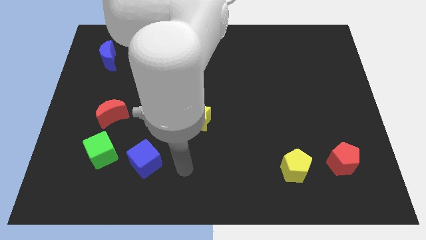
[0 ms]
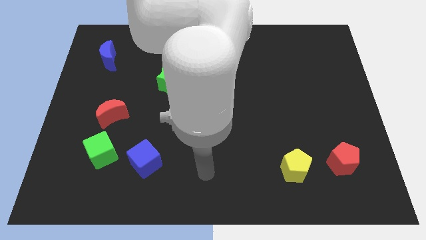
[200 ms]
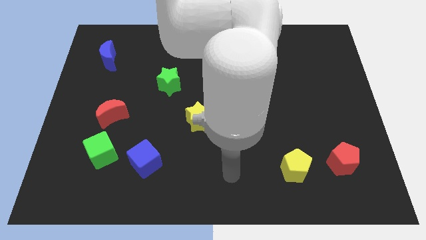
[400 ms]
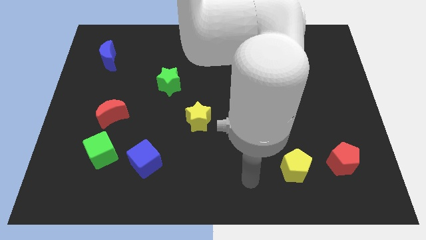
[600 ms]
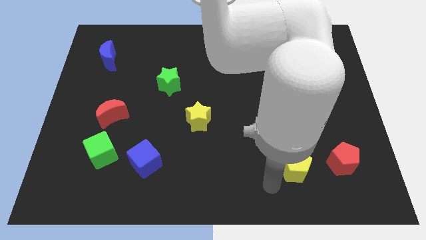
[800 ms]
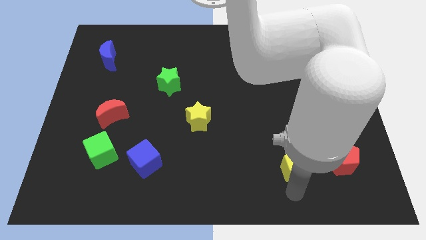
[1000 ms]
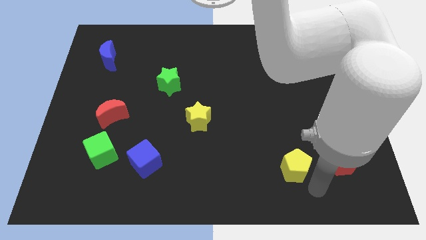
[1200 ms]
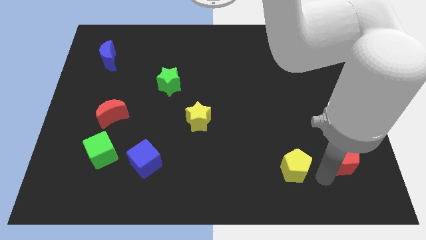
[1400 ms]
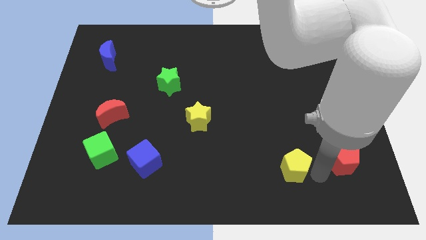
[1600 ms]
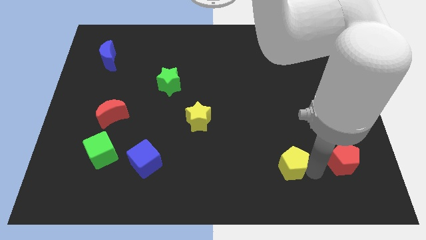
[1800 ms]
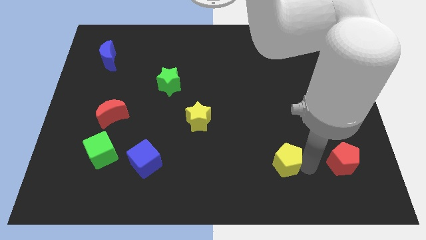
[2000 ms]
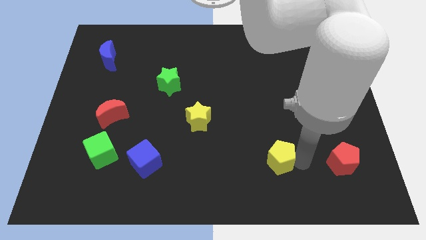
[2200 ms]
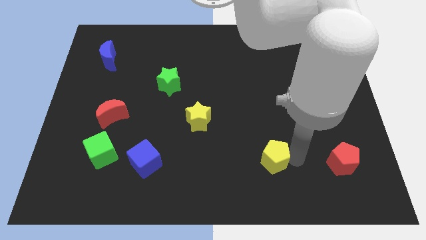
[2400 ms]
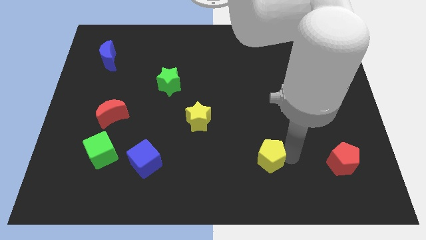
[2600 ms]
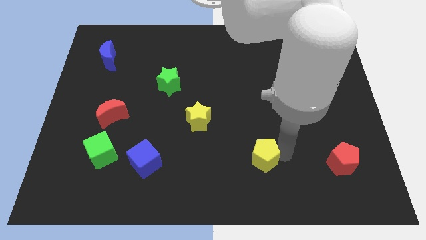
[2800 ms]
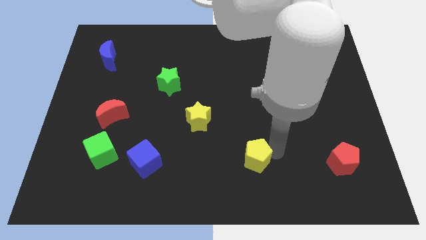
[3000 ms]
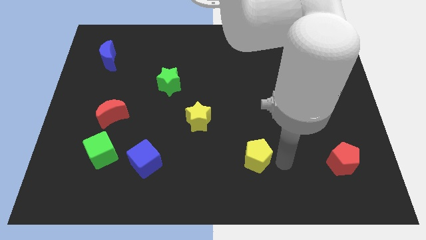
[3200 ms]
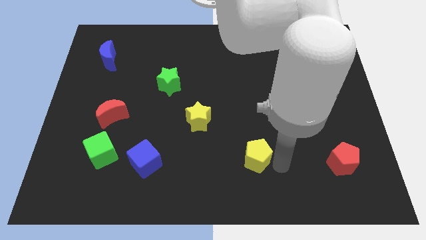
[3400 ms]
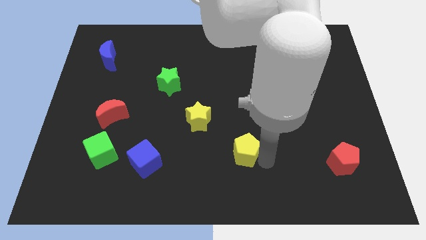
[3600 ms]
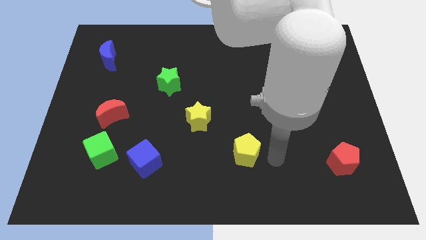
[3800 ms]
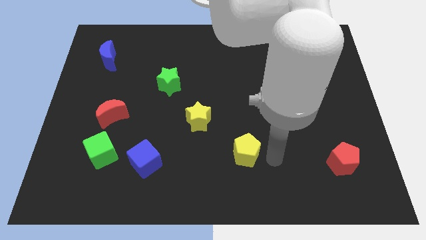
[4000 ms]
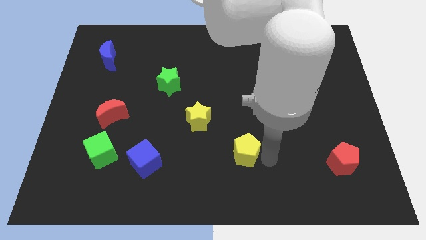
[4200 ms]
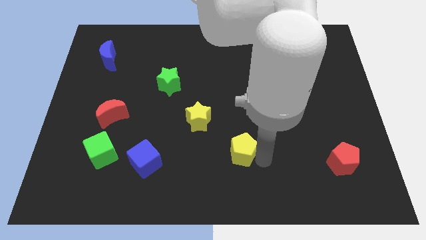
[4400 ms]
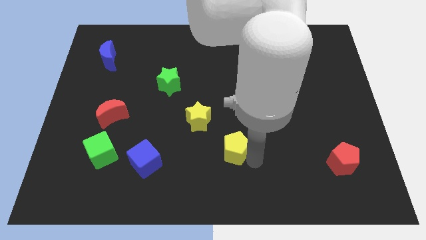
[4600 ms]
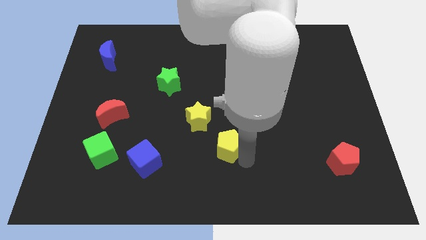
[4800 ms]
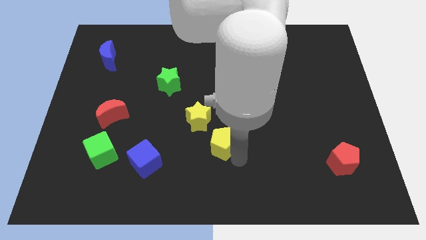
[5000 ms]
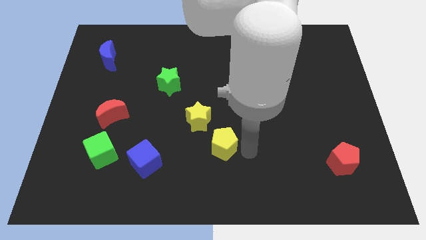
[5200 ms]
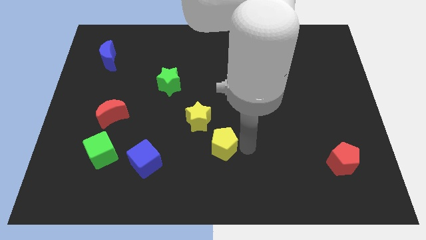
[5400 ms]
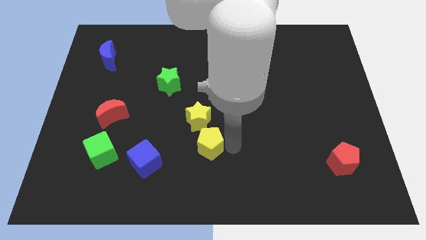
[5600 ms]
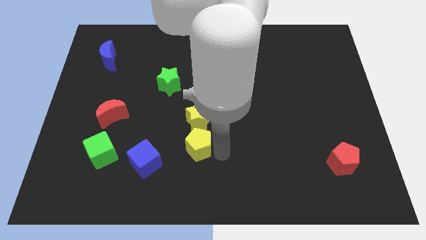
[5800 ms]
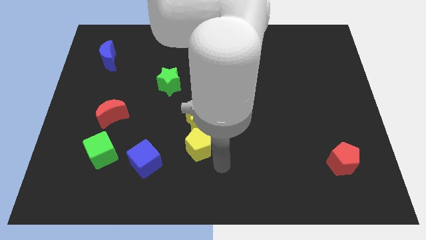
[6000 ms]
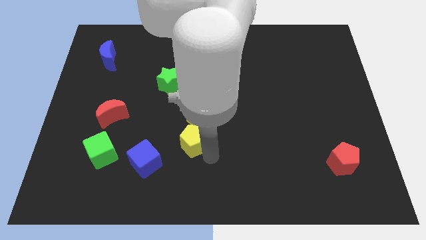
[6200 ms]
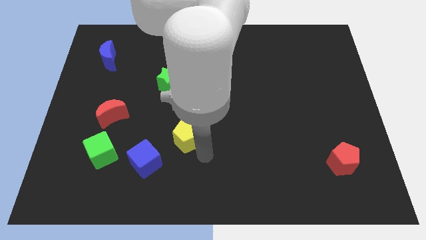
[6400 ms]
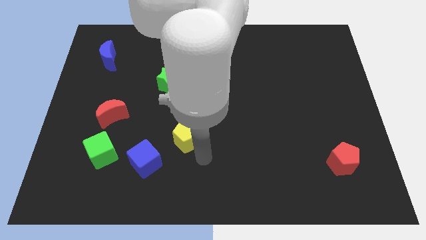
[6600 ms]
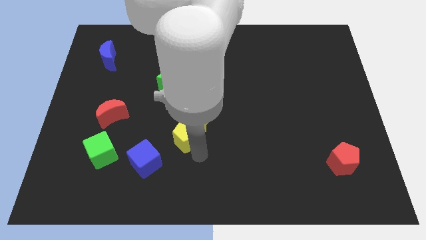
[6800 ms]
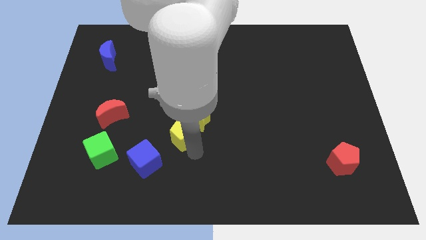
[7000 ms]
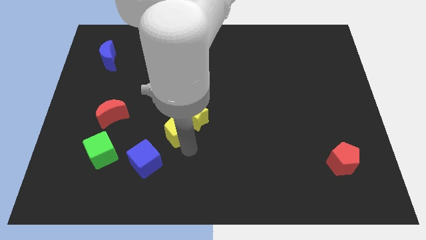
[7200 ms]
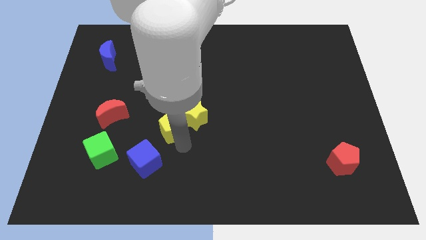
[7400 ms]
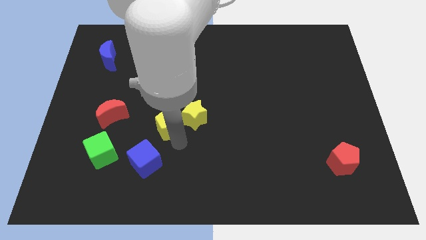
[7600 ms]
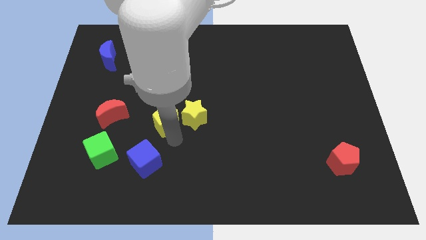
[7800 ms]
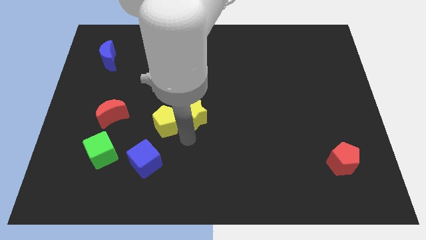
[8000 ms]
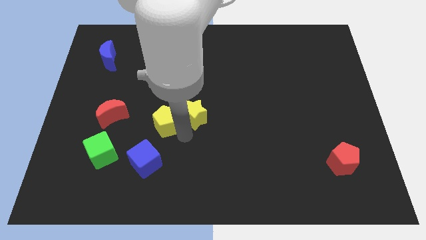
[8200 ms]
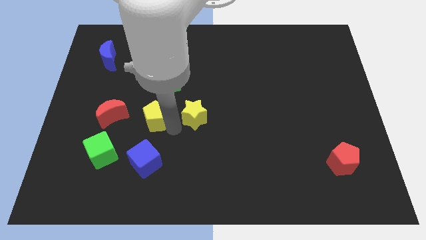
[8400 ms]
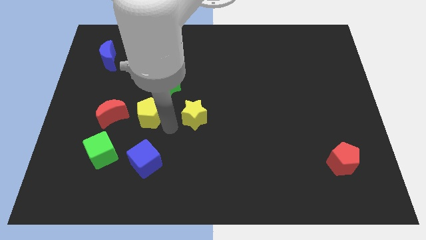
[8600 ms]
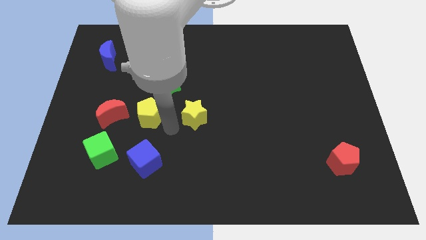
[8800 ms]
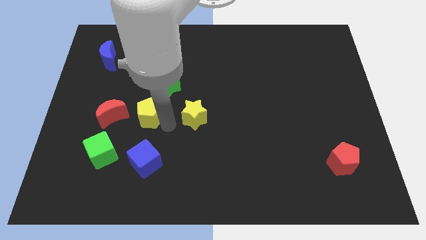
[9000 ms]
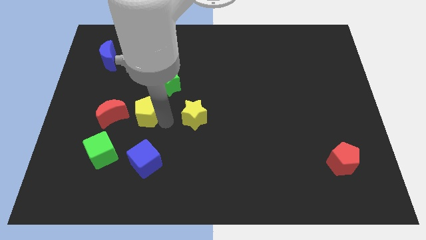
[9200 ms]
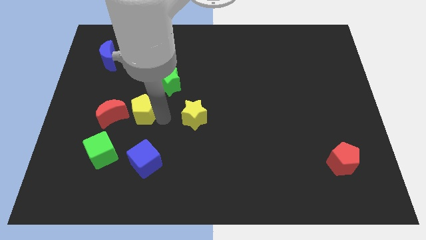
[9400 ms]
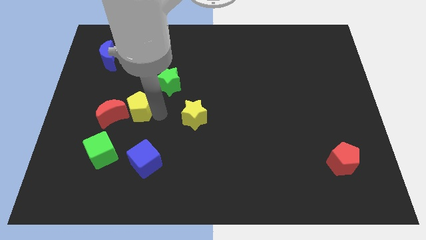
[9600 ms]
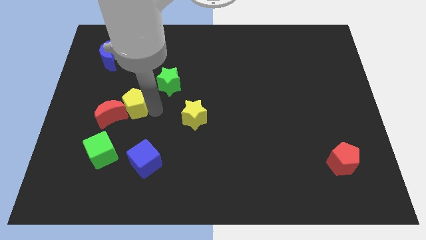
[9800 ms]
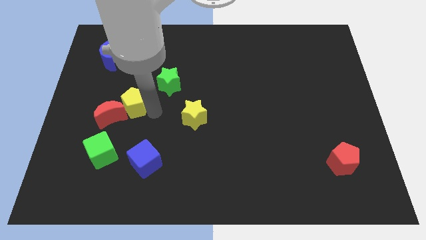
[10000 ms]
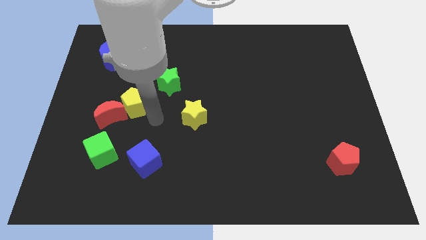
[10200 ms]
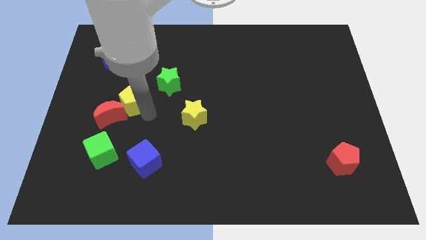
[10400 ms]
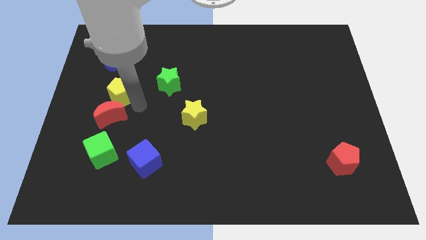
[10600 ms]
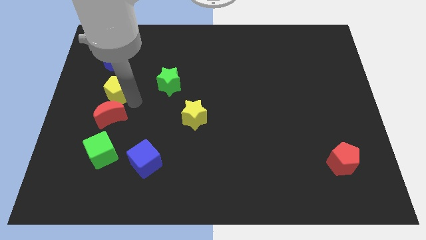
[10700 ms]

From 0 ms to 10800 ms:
move the yellow pentagon to the bottom side of the blue moon

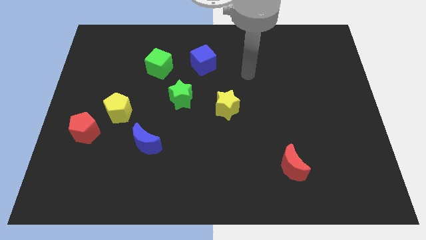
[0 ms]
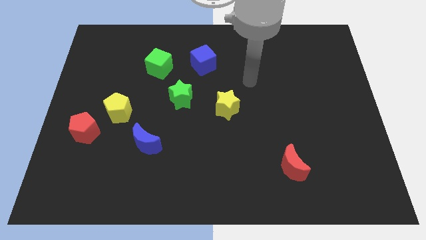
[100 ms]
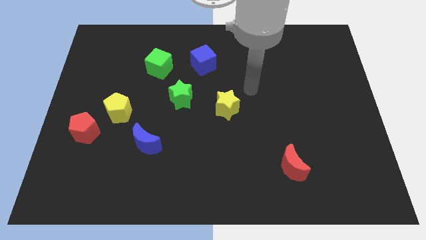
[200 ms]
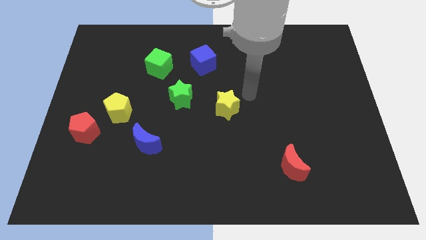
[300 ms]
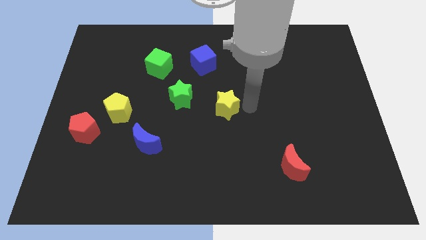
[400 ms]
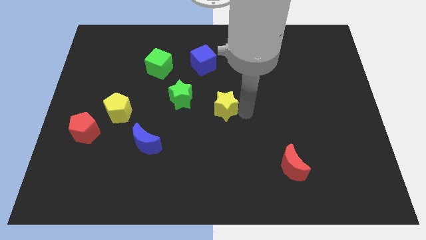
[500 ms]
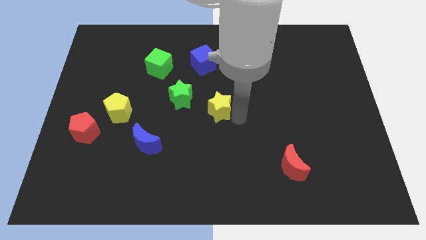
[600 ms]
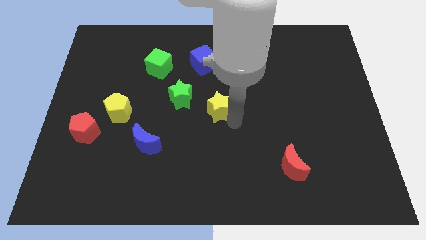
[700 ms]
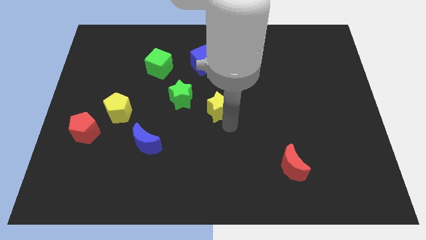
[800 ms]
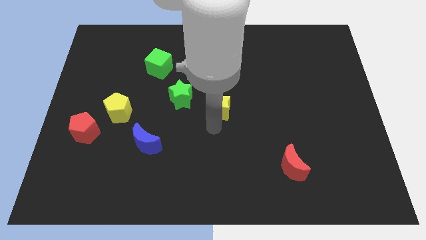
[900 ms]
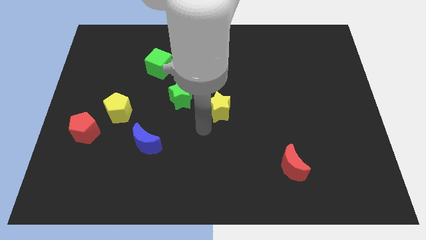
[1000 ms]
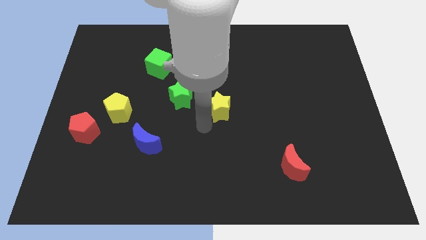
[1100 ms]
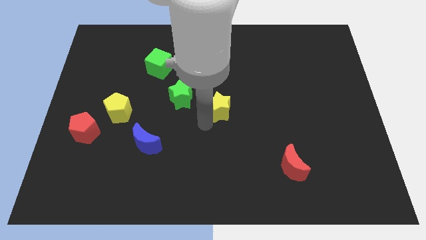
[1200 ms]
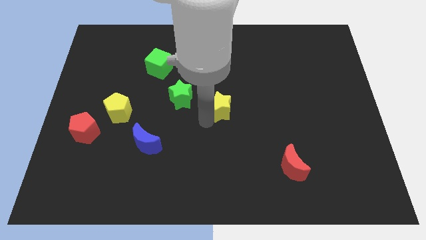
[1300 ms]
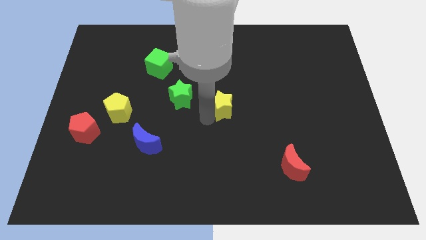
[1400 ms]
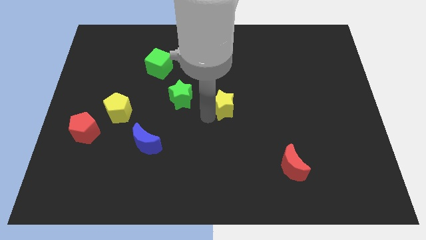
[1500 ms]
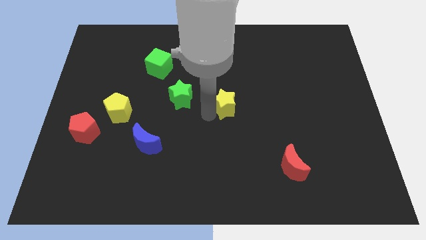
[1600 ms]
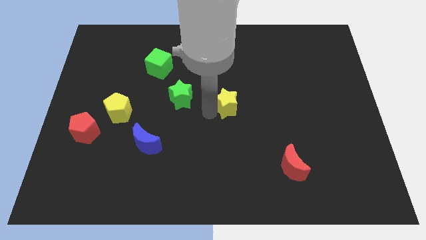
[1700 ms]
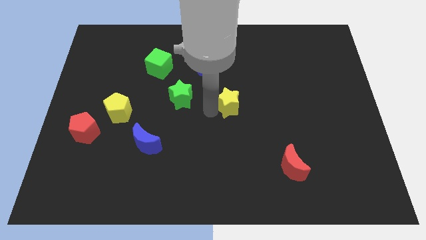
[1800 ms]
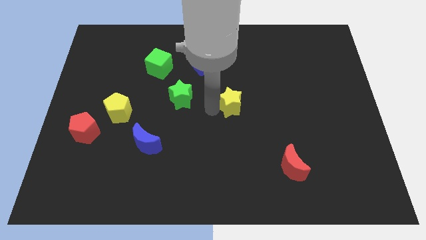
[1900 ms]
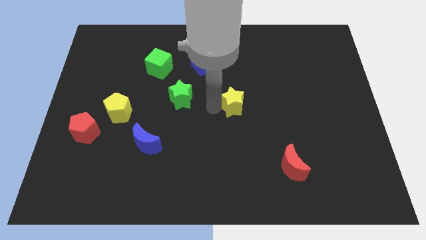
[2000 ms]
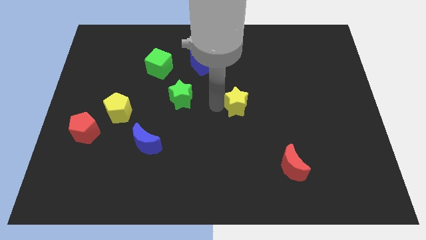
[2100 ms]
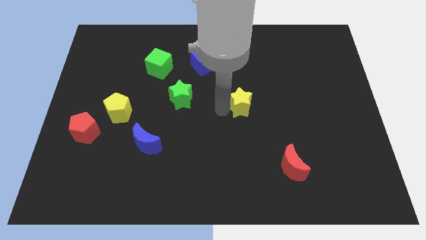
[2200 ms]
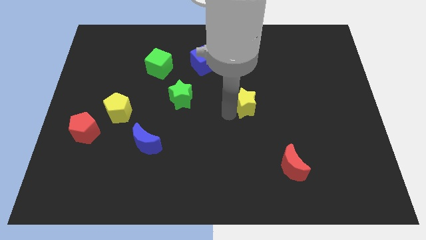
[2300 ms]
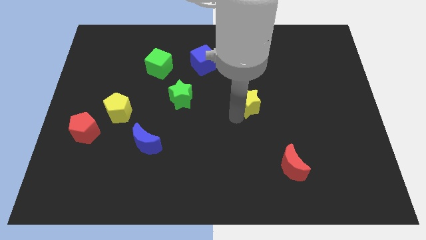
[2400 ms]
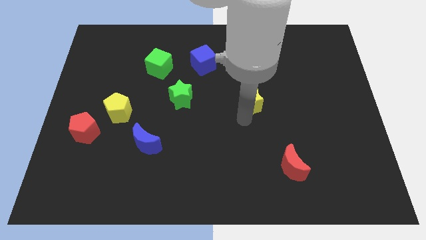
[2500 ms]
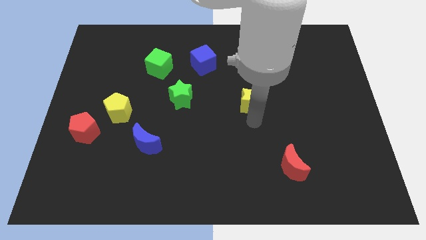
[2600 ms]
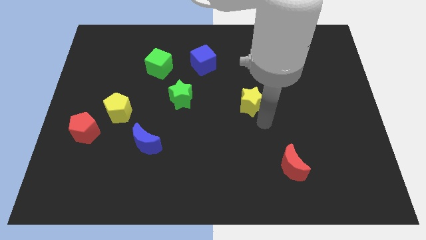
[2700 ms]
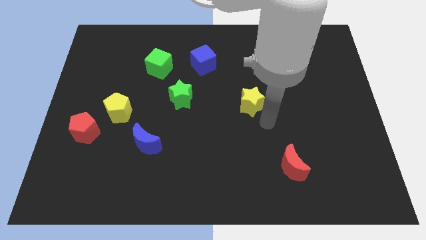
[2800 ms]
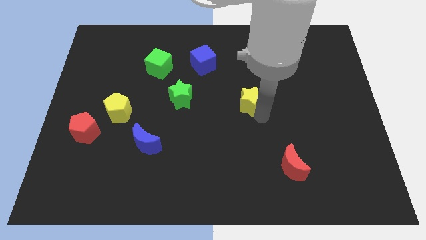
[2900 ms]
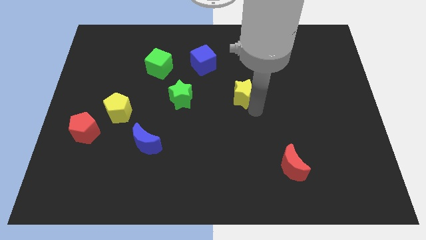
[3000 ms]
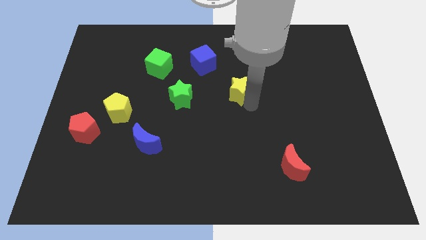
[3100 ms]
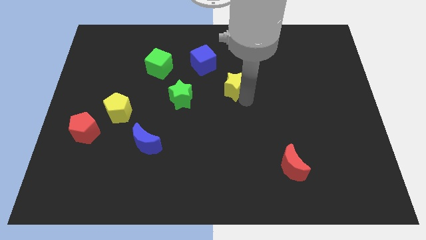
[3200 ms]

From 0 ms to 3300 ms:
put the yellow star diagonally down and to the right of the blue cube
